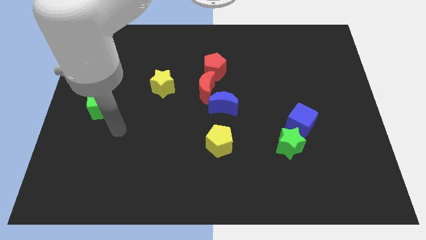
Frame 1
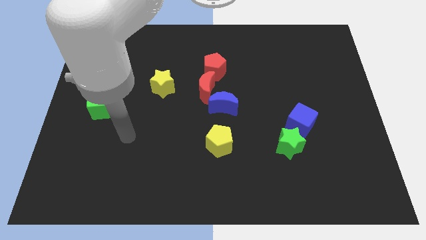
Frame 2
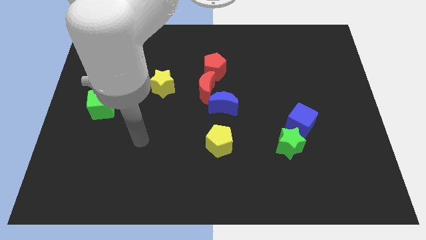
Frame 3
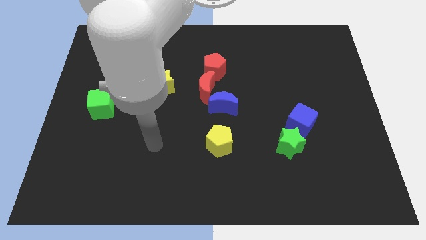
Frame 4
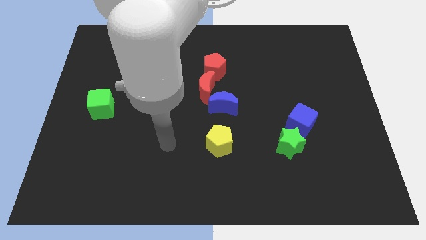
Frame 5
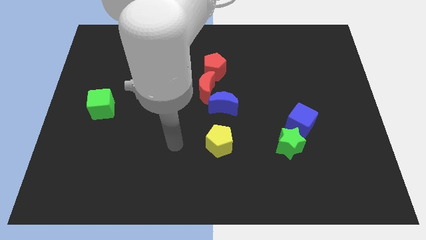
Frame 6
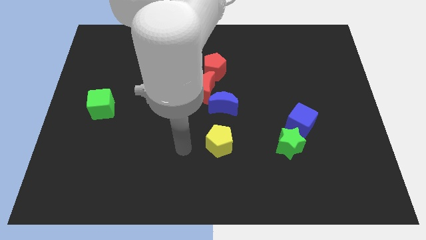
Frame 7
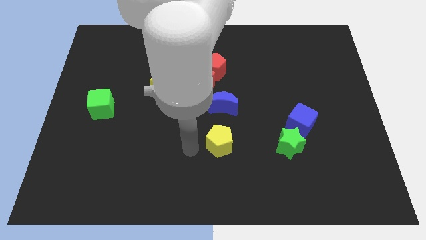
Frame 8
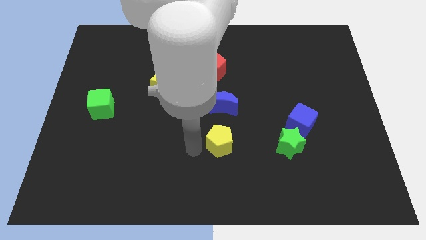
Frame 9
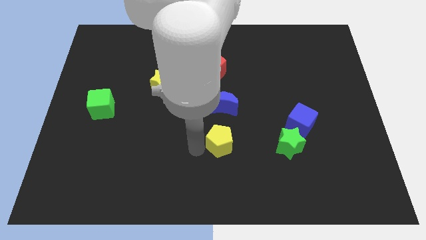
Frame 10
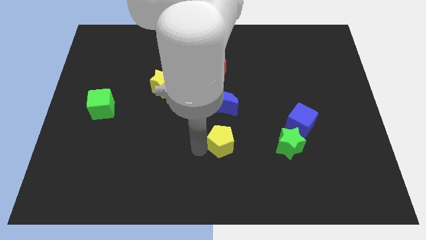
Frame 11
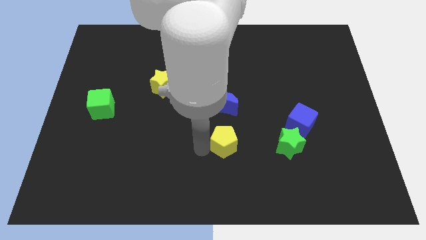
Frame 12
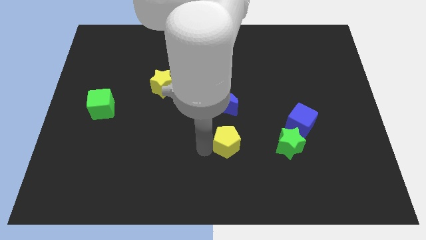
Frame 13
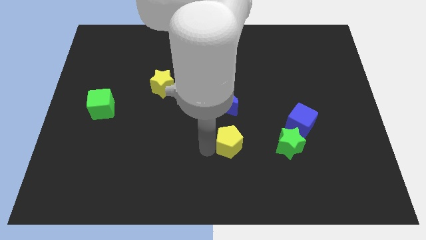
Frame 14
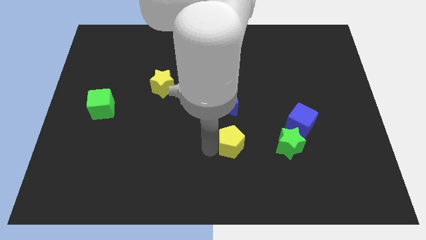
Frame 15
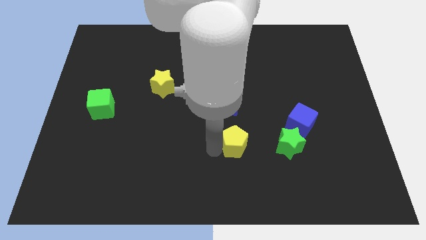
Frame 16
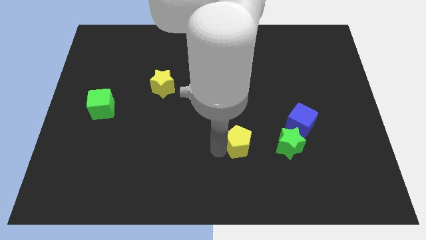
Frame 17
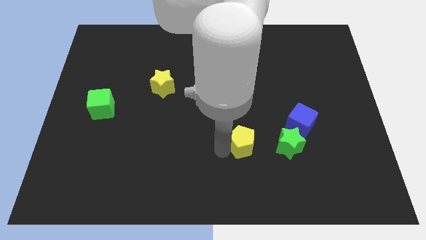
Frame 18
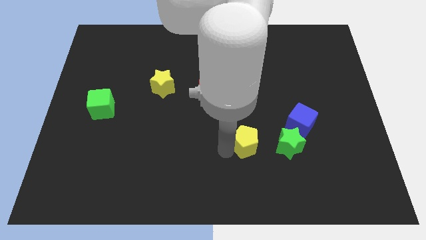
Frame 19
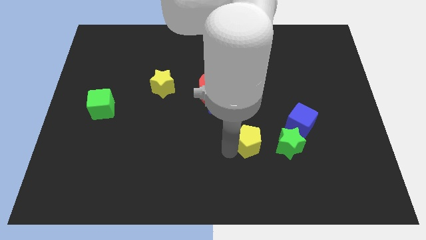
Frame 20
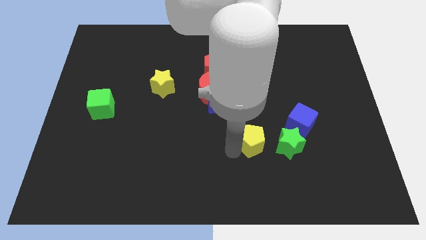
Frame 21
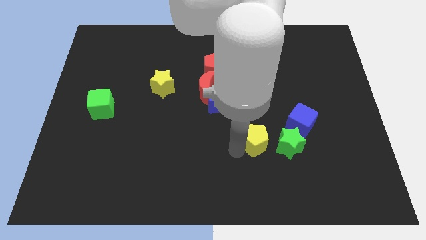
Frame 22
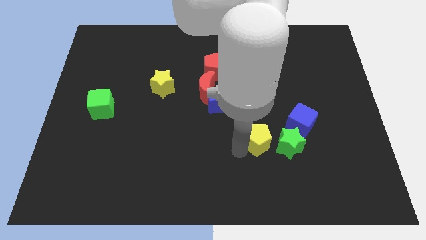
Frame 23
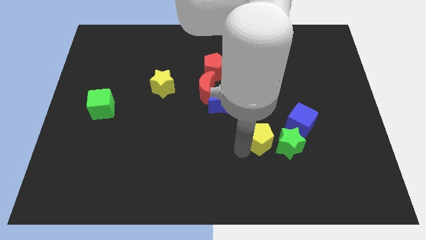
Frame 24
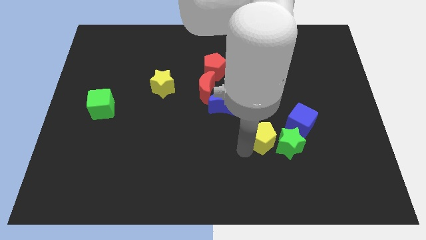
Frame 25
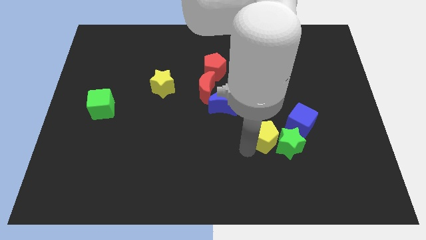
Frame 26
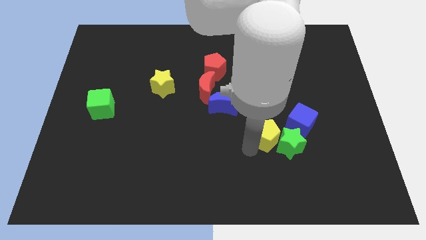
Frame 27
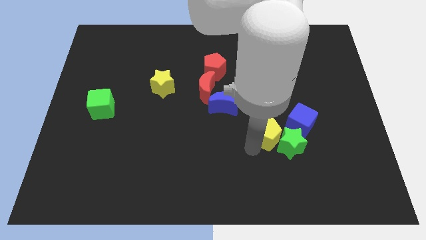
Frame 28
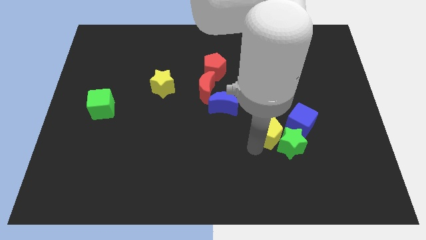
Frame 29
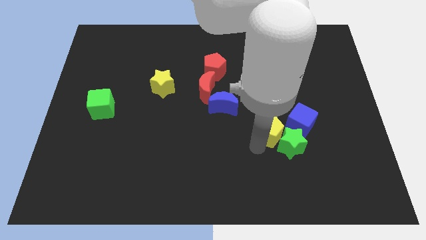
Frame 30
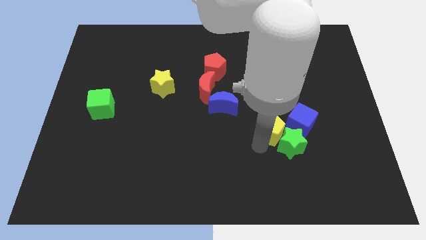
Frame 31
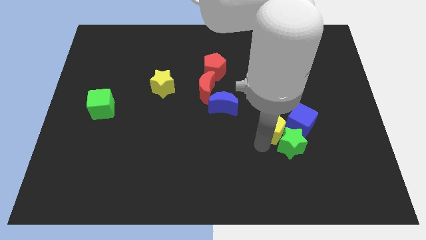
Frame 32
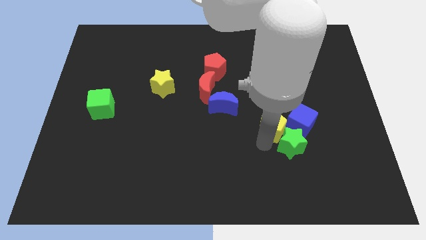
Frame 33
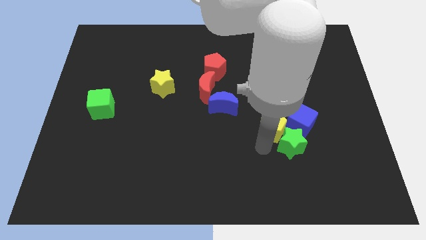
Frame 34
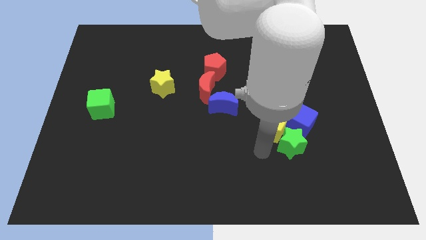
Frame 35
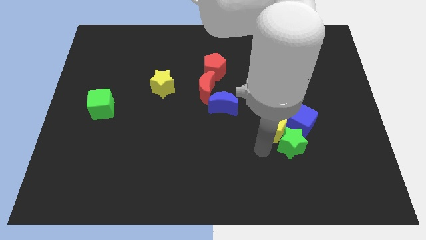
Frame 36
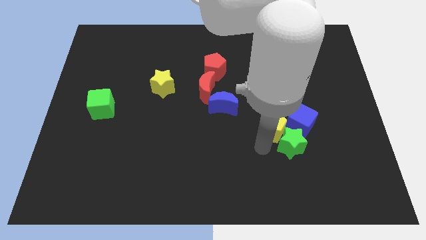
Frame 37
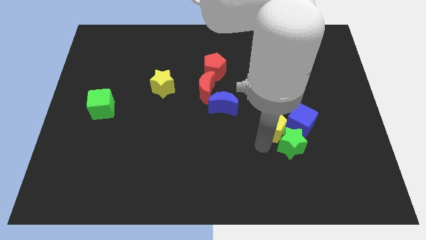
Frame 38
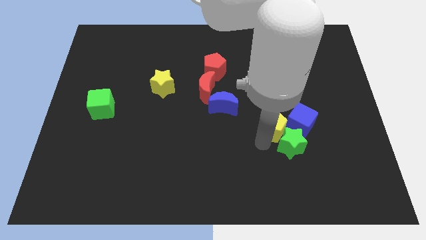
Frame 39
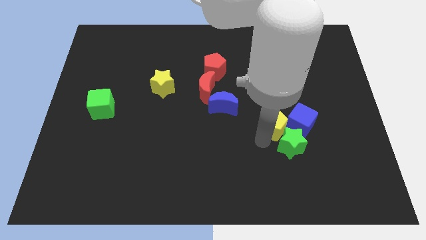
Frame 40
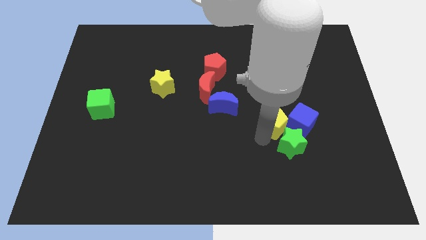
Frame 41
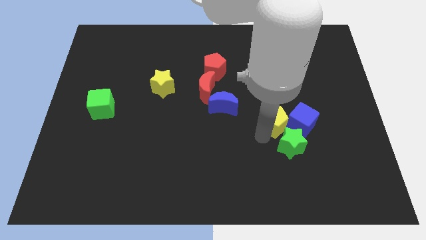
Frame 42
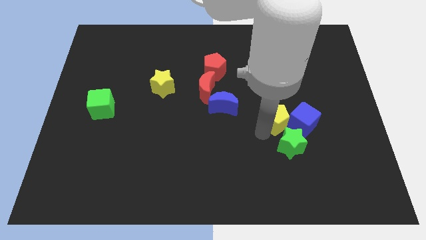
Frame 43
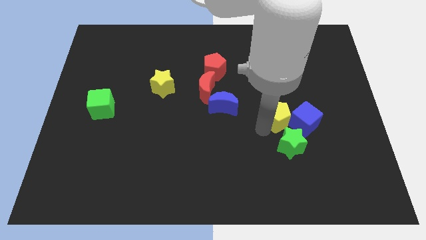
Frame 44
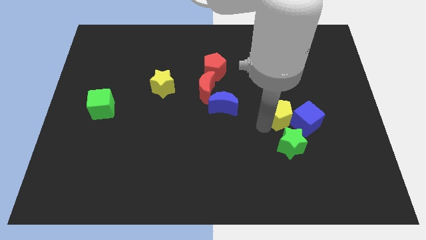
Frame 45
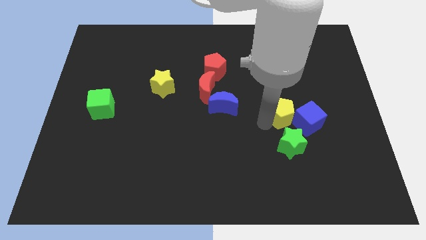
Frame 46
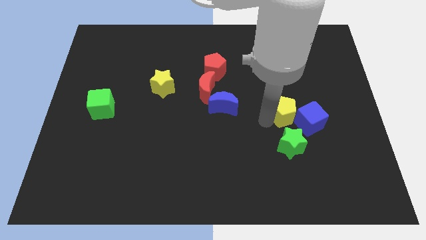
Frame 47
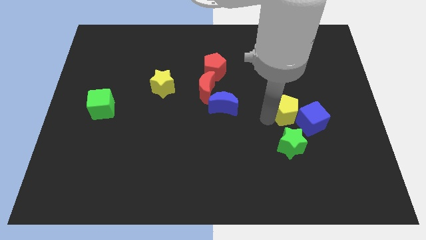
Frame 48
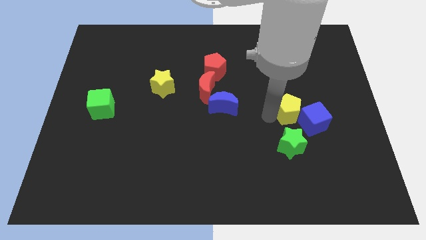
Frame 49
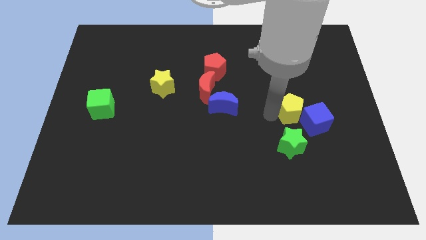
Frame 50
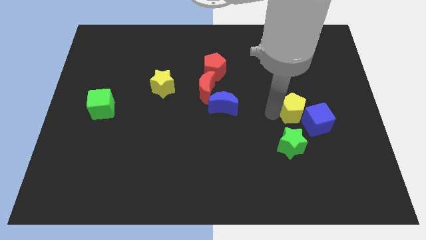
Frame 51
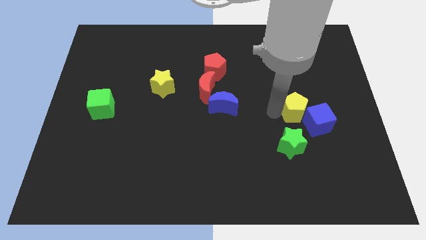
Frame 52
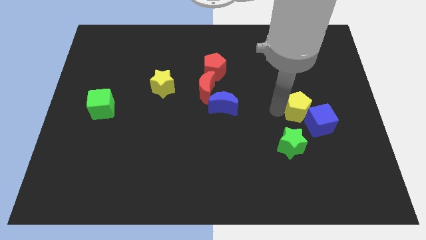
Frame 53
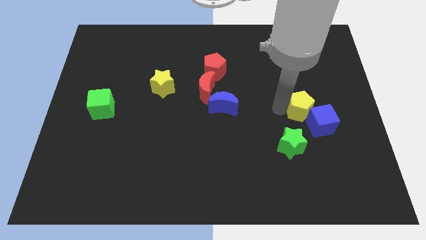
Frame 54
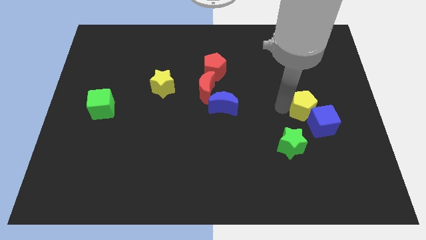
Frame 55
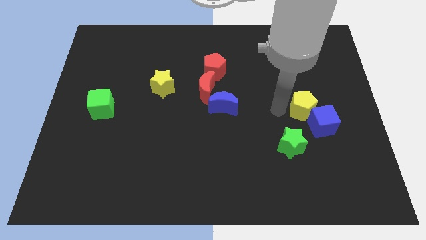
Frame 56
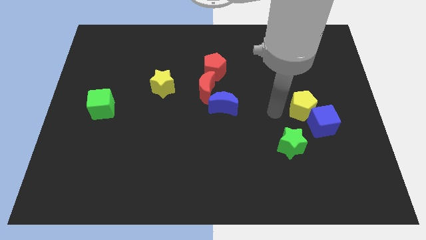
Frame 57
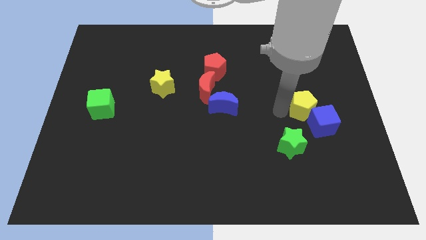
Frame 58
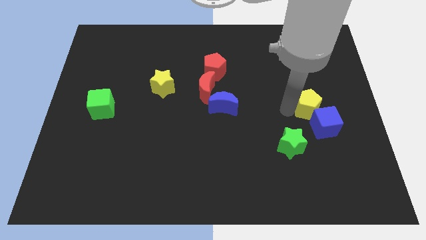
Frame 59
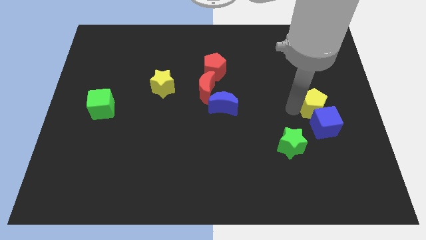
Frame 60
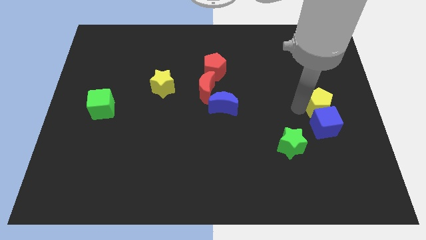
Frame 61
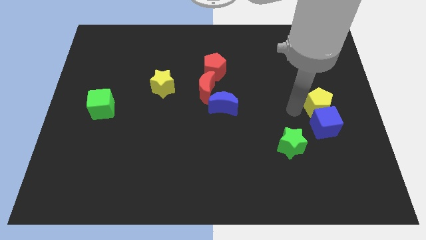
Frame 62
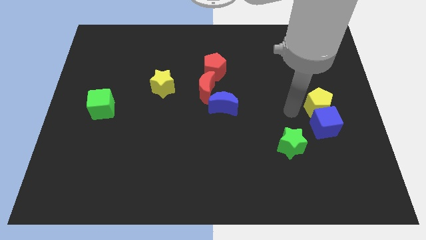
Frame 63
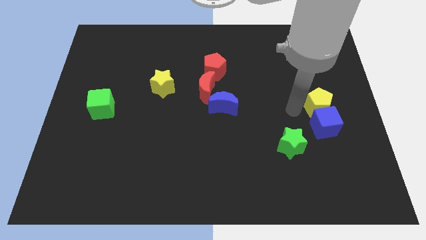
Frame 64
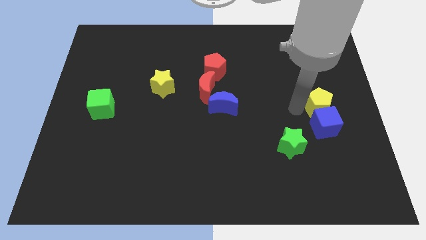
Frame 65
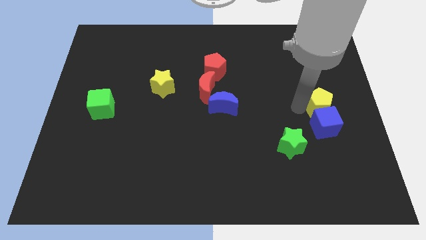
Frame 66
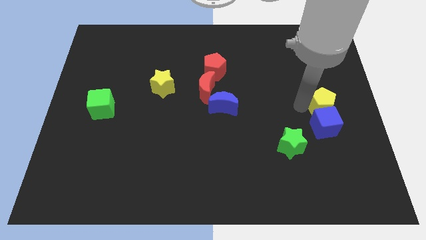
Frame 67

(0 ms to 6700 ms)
slide the yellow pentagon to the center right

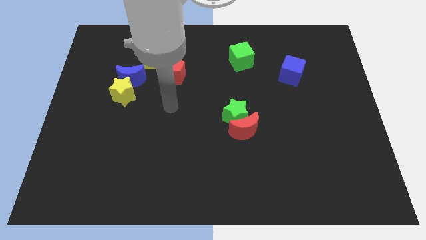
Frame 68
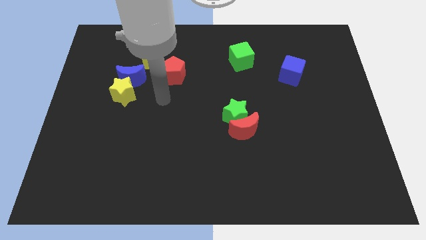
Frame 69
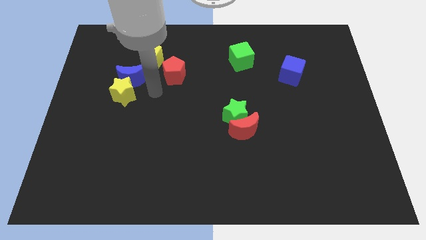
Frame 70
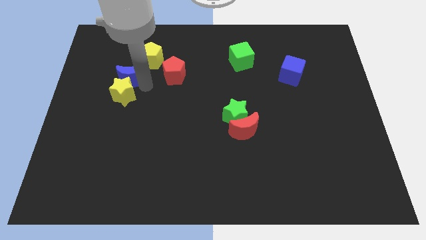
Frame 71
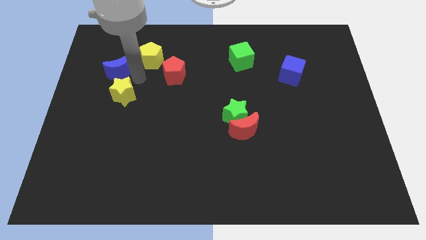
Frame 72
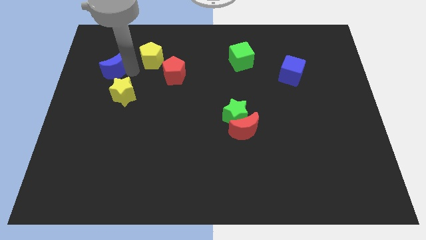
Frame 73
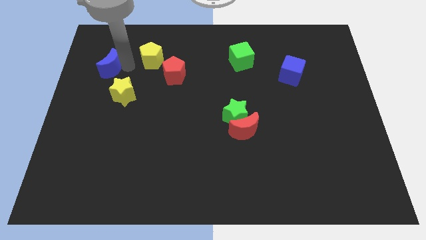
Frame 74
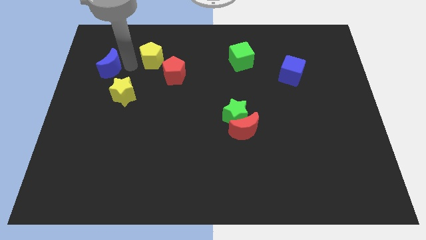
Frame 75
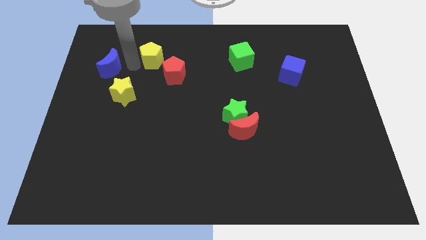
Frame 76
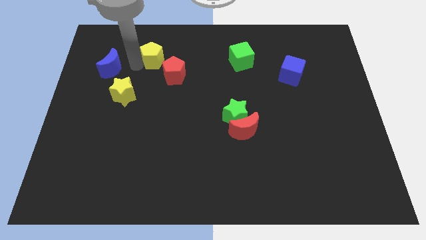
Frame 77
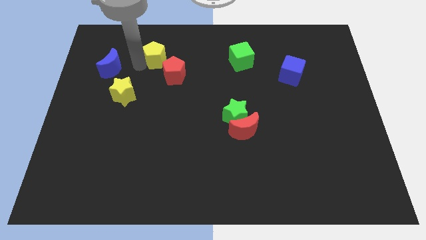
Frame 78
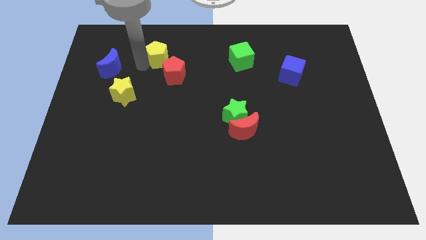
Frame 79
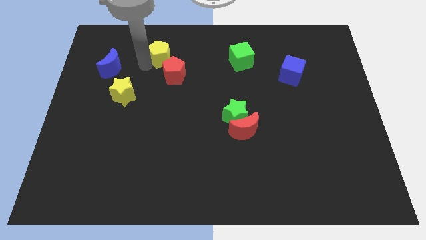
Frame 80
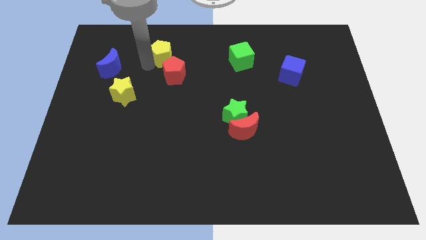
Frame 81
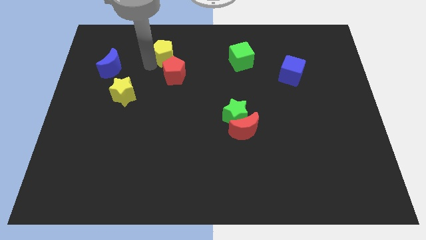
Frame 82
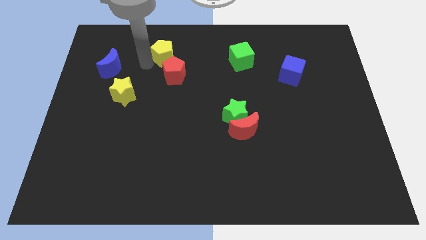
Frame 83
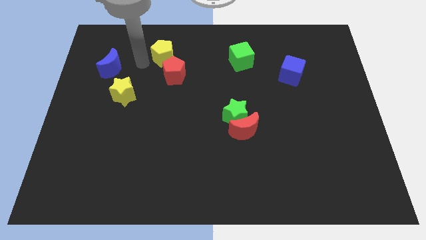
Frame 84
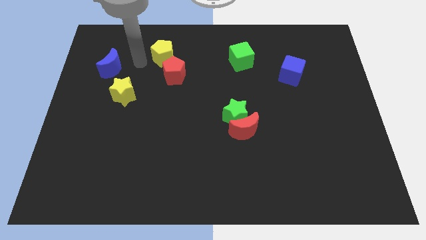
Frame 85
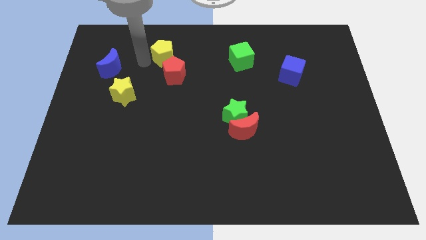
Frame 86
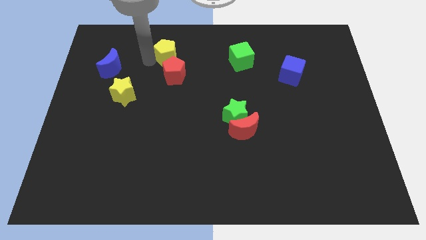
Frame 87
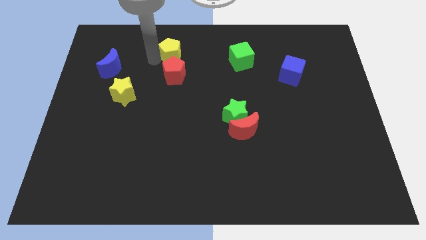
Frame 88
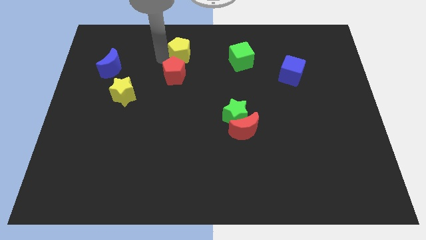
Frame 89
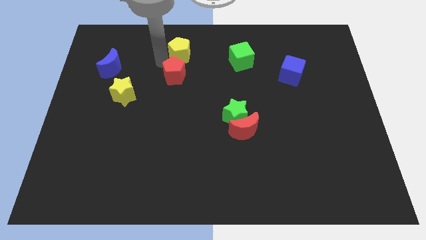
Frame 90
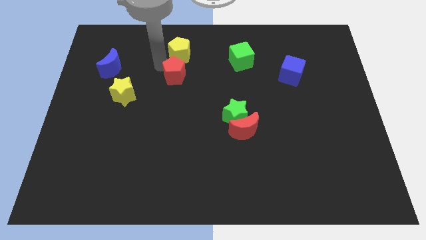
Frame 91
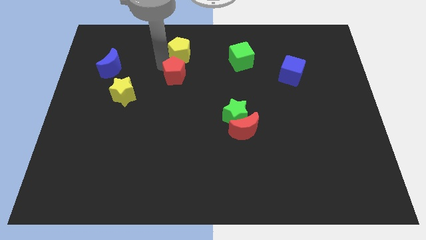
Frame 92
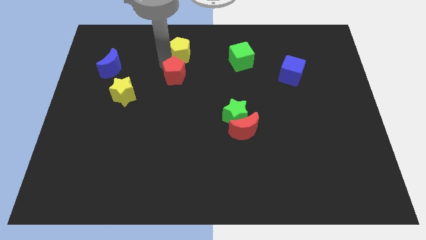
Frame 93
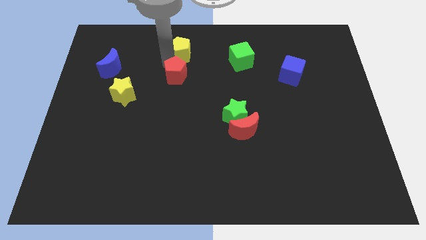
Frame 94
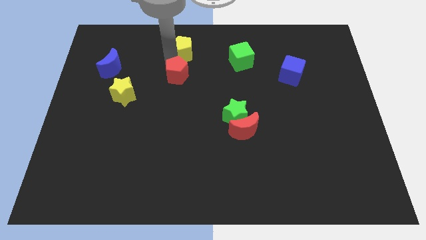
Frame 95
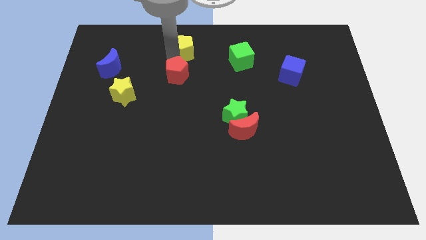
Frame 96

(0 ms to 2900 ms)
slide the yellow pentagon to the top side
